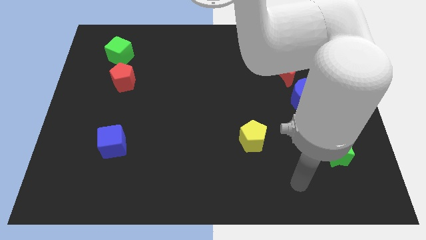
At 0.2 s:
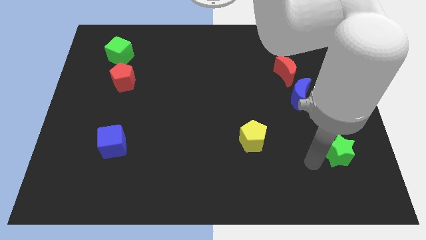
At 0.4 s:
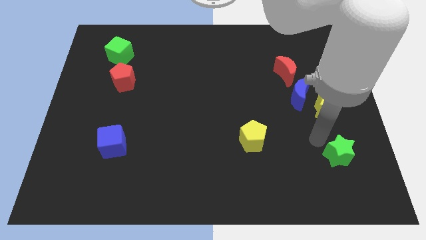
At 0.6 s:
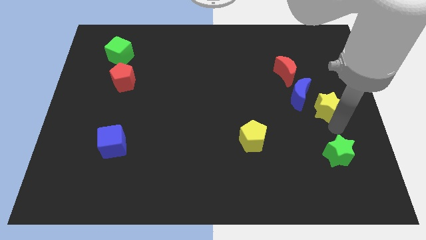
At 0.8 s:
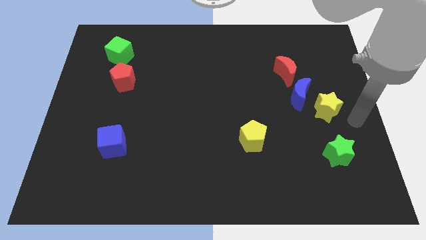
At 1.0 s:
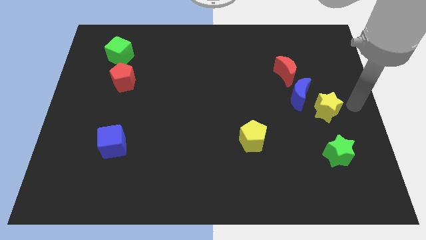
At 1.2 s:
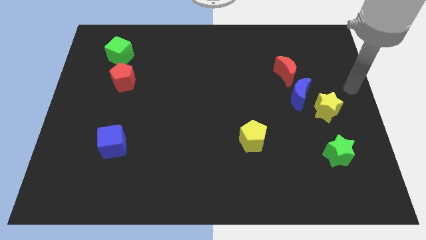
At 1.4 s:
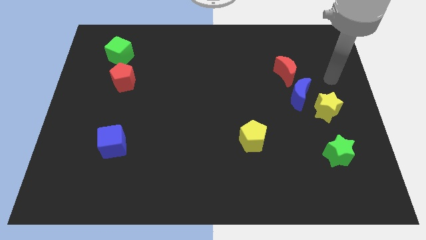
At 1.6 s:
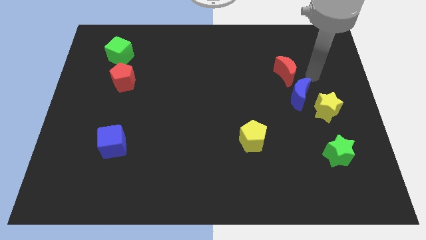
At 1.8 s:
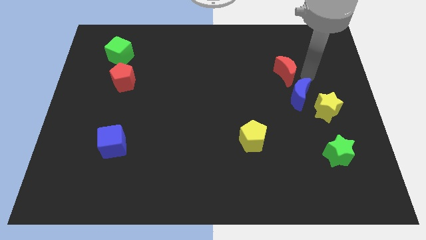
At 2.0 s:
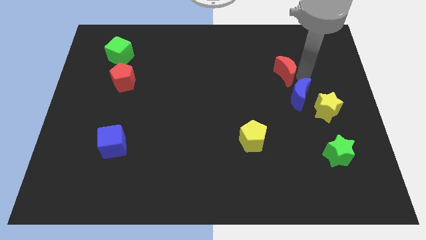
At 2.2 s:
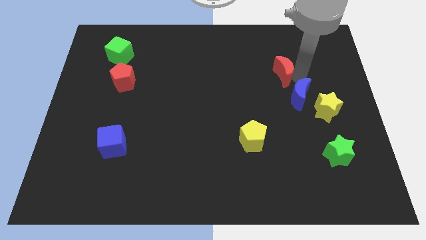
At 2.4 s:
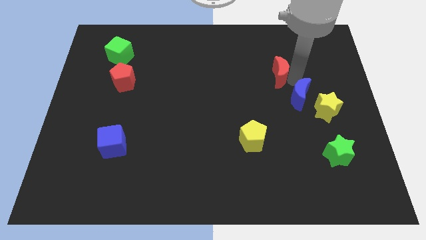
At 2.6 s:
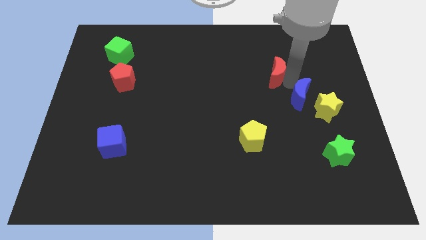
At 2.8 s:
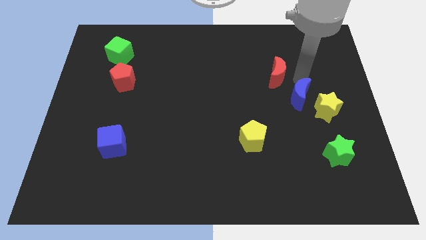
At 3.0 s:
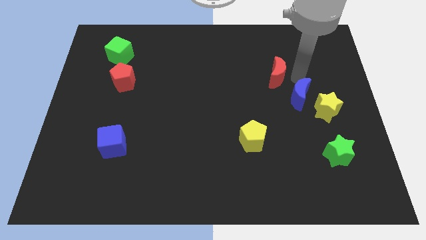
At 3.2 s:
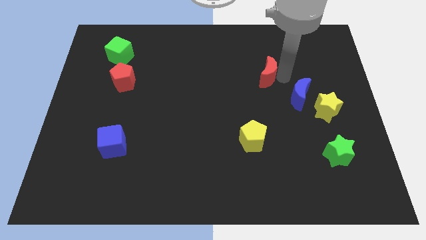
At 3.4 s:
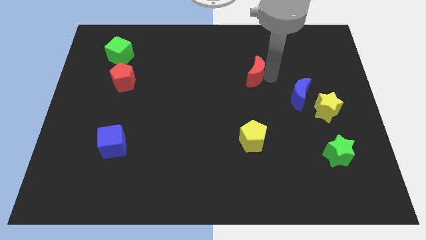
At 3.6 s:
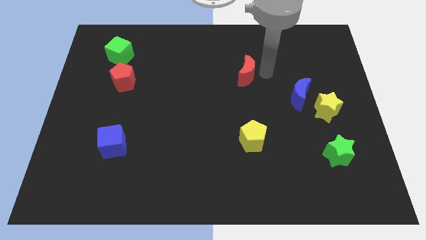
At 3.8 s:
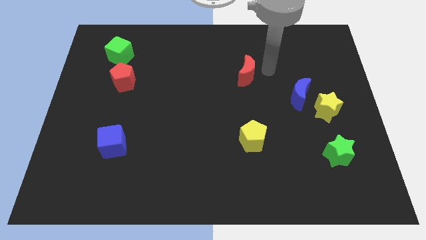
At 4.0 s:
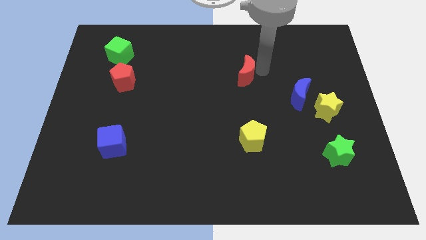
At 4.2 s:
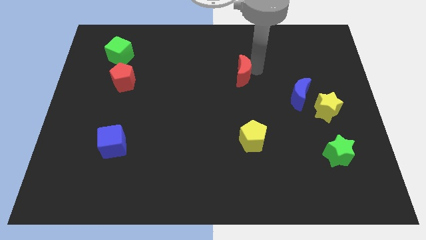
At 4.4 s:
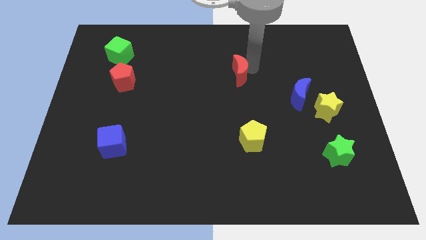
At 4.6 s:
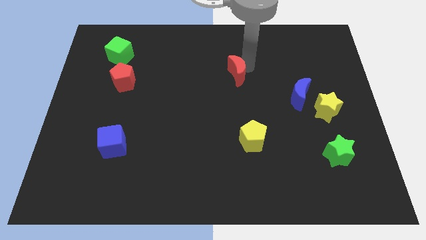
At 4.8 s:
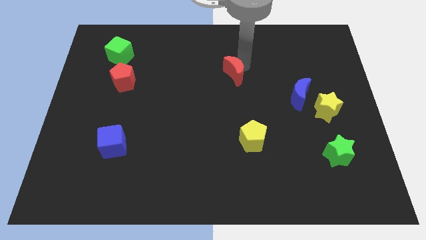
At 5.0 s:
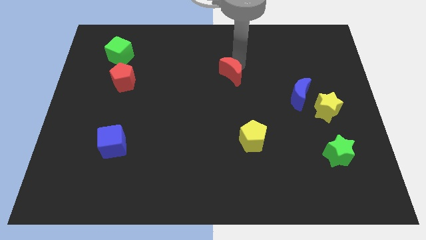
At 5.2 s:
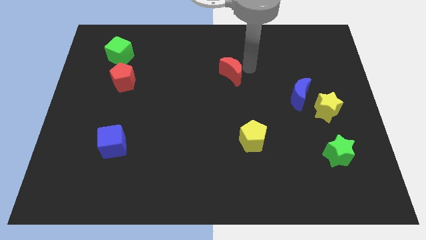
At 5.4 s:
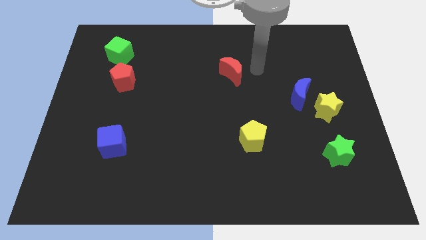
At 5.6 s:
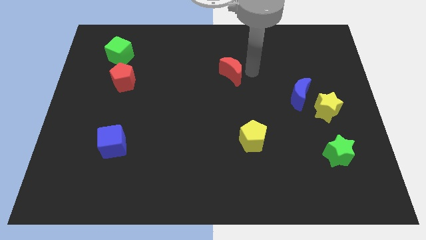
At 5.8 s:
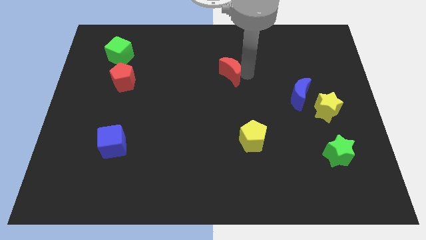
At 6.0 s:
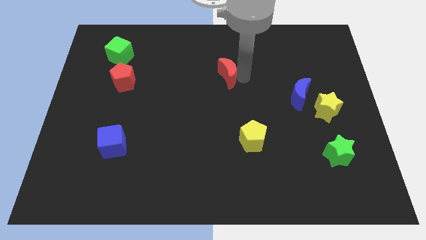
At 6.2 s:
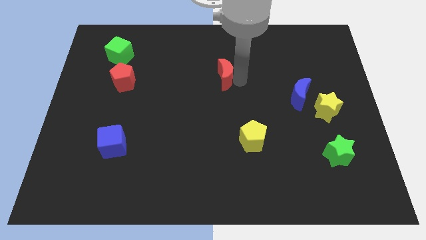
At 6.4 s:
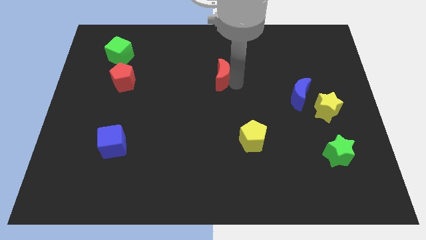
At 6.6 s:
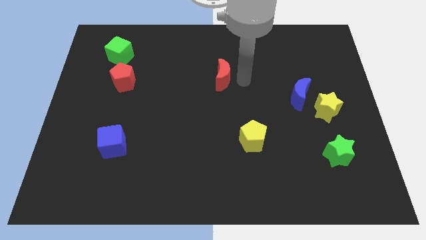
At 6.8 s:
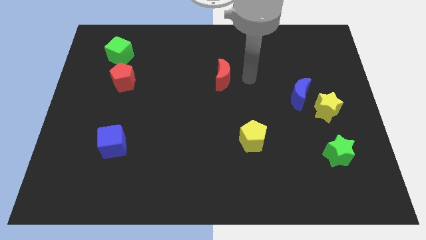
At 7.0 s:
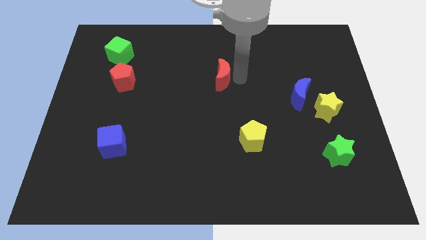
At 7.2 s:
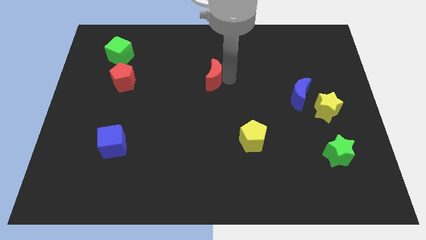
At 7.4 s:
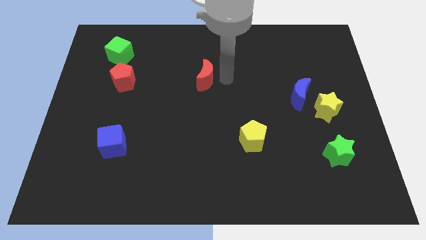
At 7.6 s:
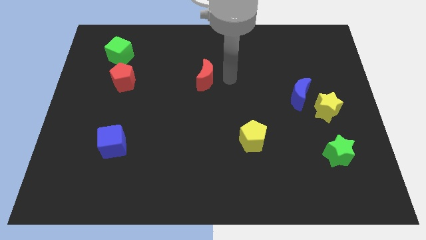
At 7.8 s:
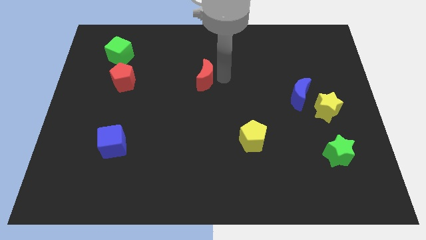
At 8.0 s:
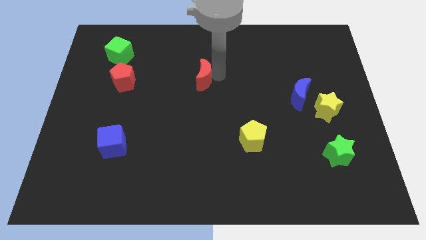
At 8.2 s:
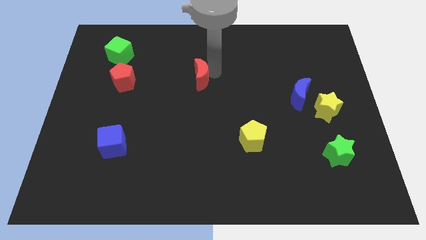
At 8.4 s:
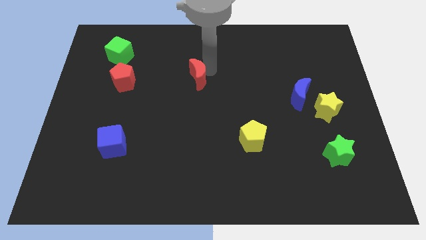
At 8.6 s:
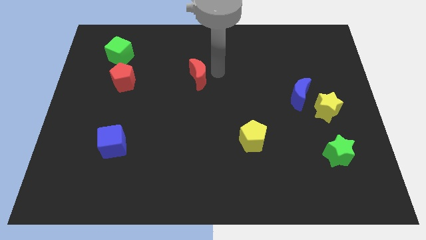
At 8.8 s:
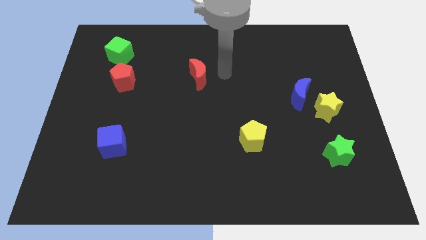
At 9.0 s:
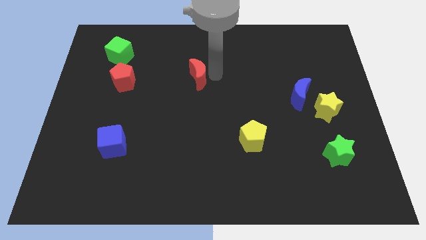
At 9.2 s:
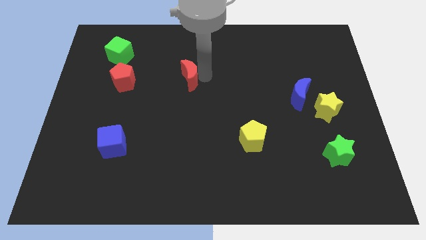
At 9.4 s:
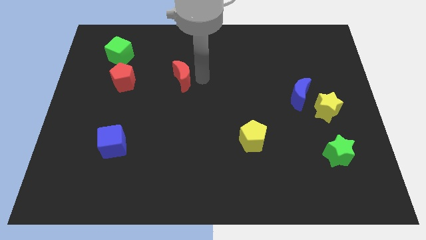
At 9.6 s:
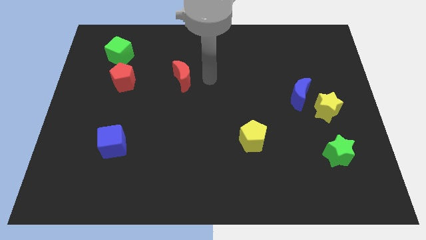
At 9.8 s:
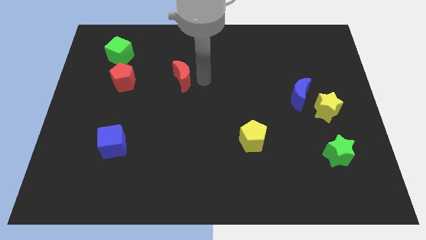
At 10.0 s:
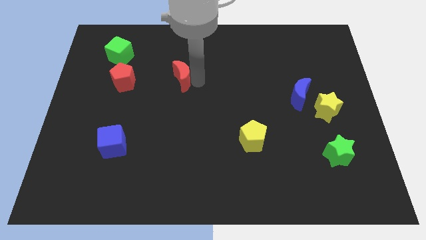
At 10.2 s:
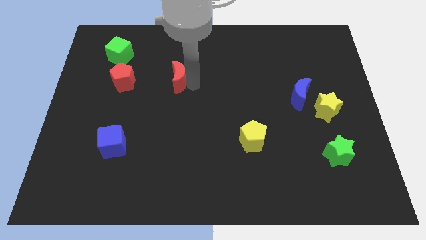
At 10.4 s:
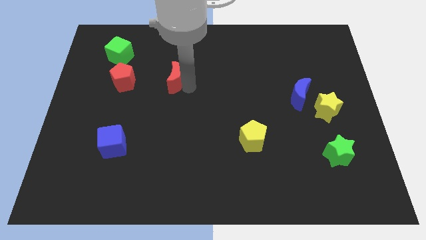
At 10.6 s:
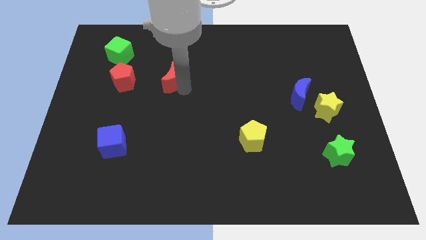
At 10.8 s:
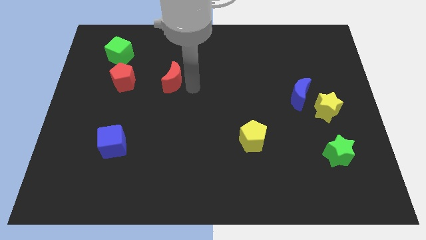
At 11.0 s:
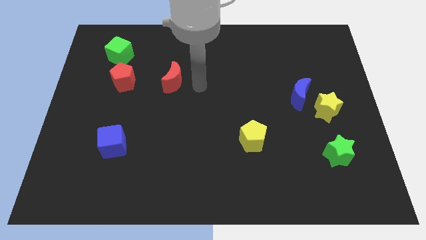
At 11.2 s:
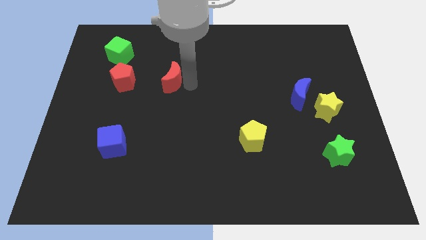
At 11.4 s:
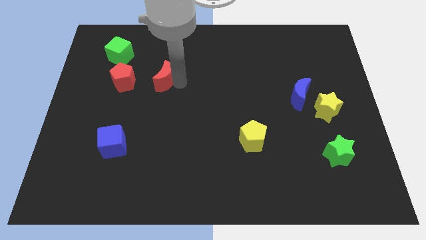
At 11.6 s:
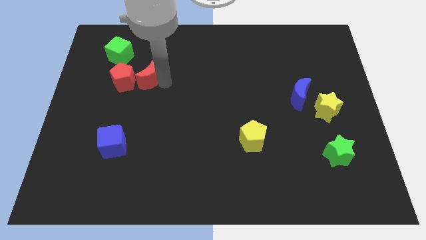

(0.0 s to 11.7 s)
push the red moon diagonally down and to the right of the green cube

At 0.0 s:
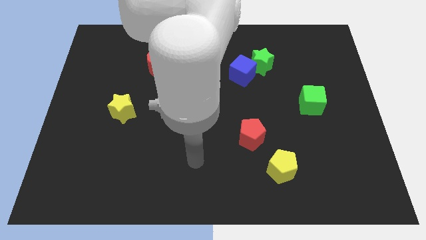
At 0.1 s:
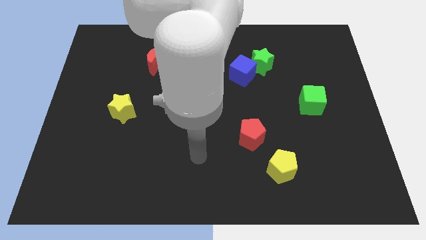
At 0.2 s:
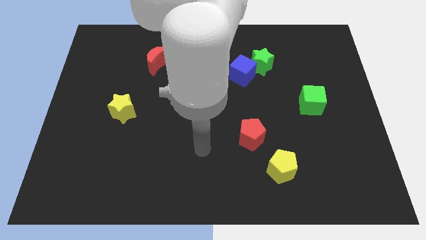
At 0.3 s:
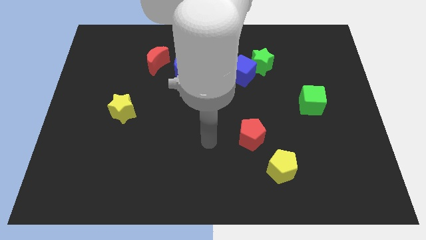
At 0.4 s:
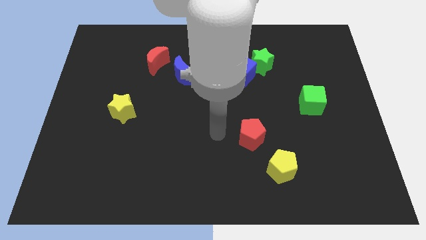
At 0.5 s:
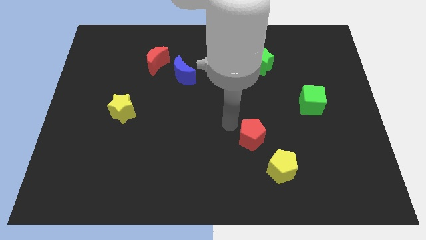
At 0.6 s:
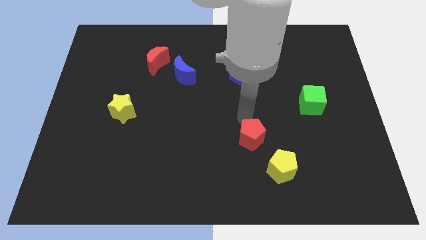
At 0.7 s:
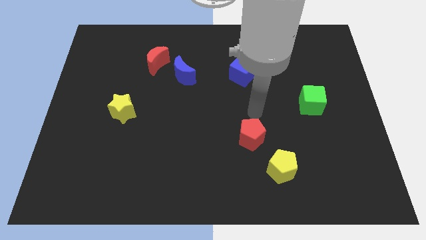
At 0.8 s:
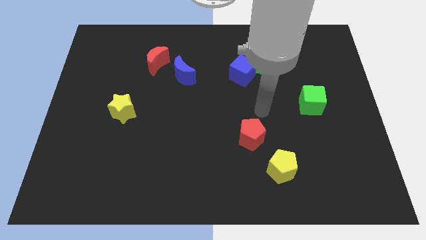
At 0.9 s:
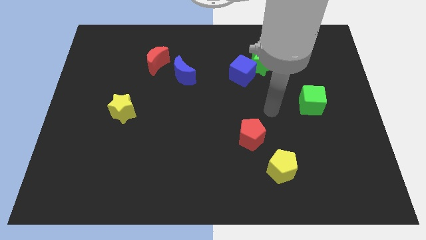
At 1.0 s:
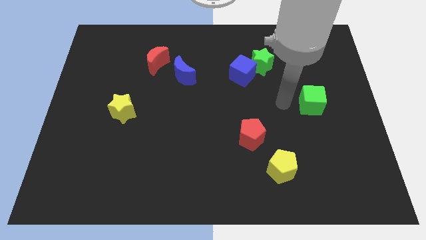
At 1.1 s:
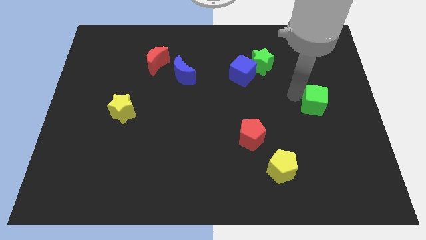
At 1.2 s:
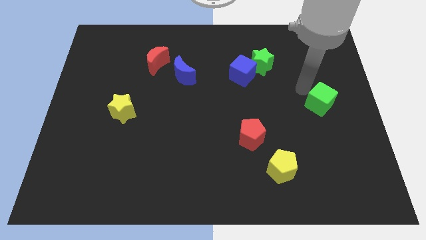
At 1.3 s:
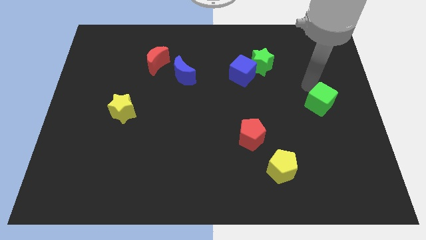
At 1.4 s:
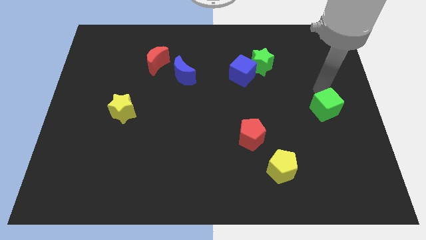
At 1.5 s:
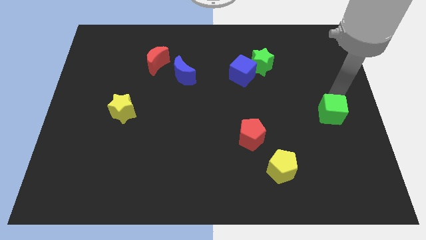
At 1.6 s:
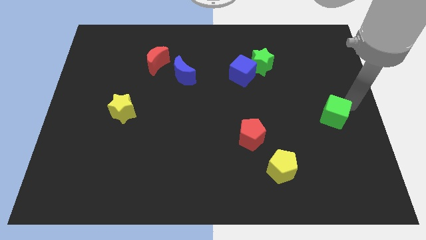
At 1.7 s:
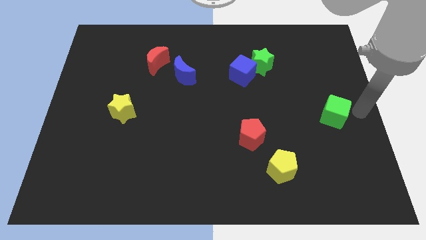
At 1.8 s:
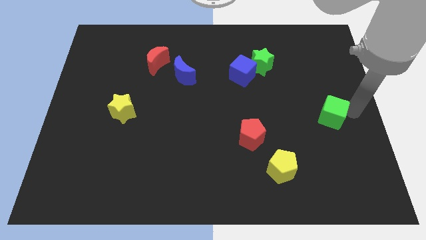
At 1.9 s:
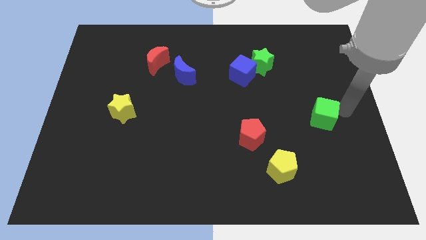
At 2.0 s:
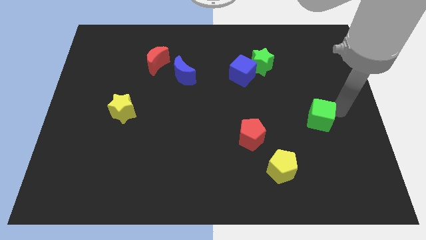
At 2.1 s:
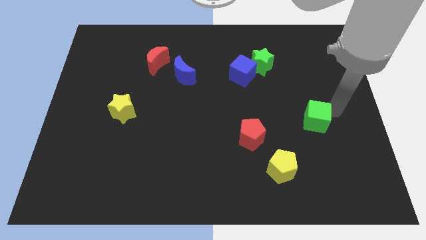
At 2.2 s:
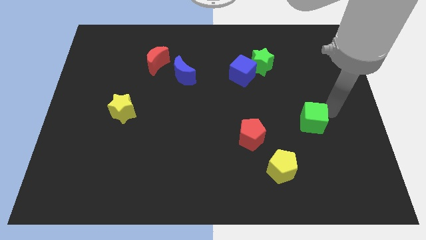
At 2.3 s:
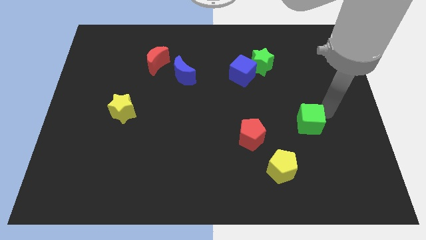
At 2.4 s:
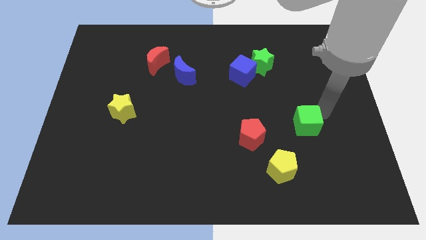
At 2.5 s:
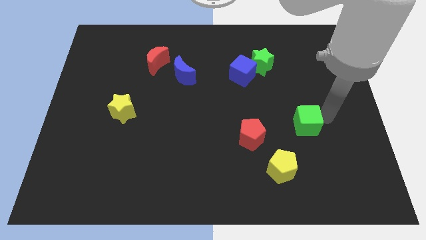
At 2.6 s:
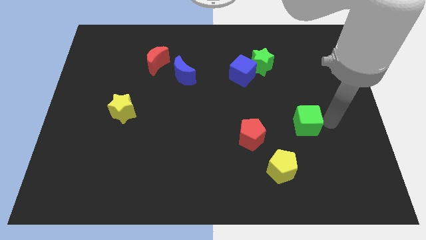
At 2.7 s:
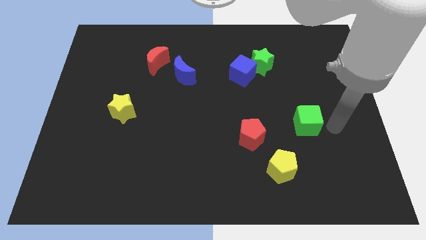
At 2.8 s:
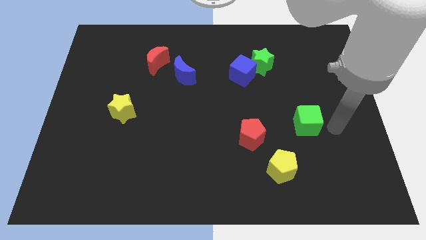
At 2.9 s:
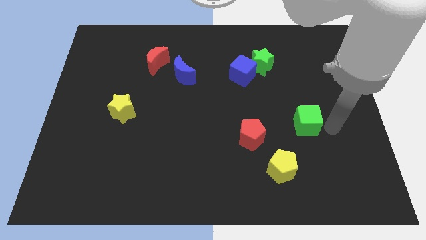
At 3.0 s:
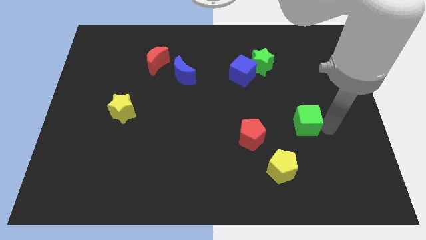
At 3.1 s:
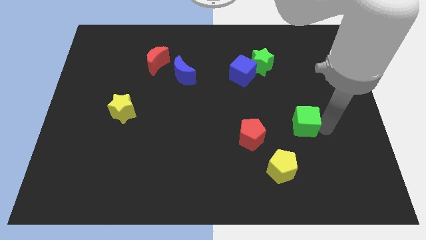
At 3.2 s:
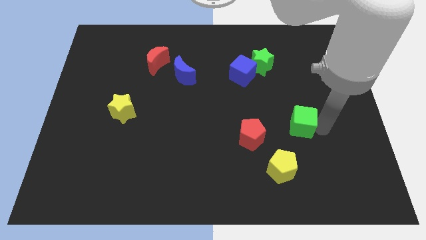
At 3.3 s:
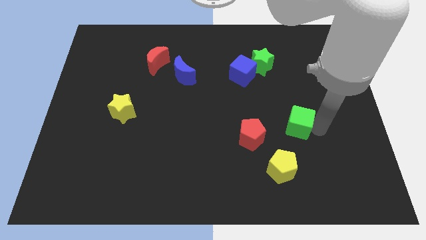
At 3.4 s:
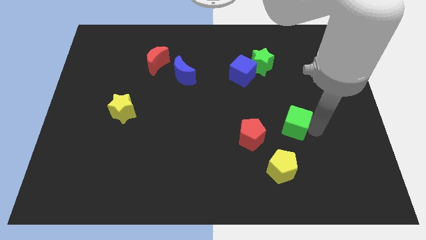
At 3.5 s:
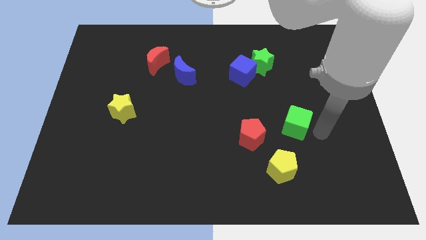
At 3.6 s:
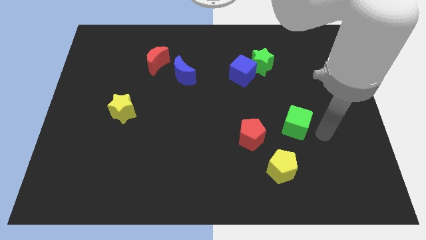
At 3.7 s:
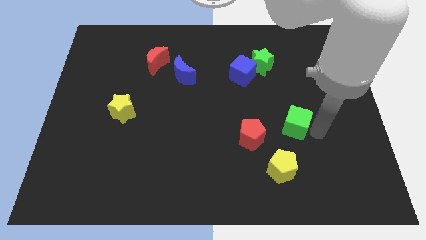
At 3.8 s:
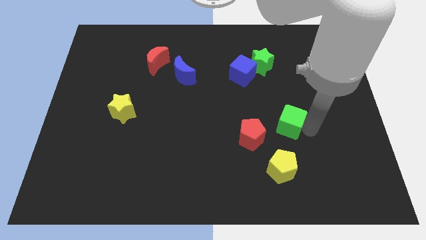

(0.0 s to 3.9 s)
put the green cube diagonally up and to the right of the red pentagon
